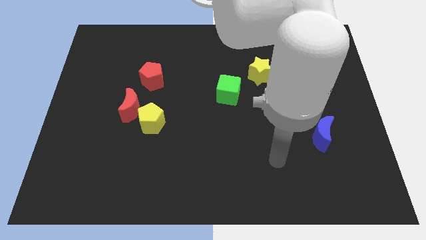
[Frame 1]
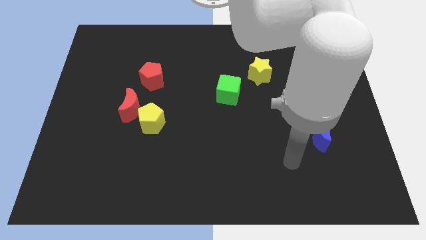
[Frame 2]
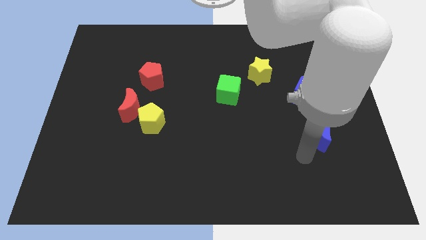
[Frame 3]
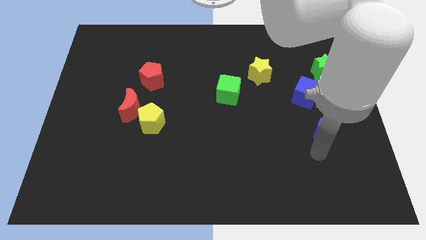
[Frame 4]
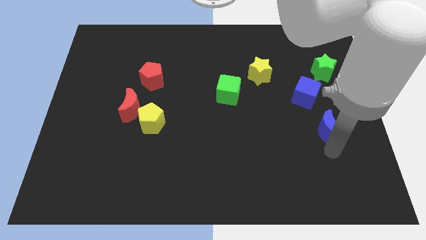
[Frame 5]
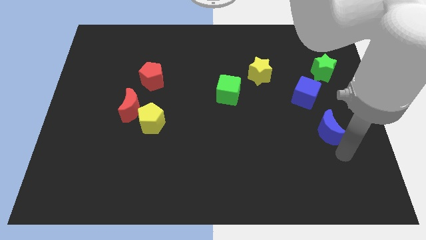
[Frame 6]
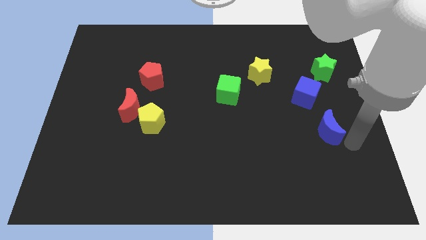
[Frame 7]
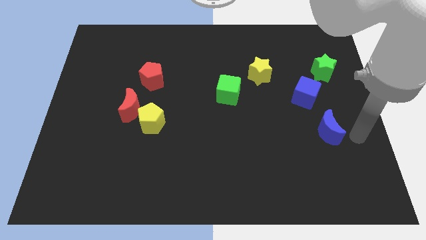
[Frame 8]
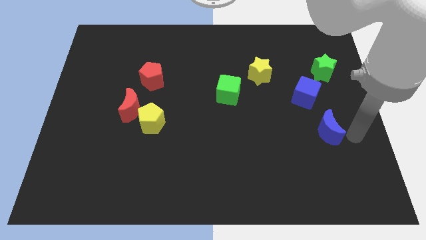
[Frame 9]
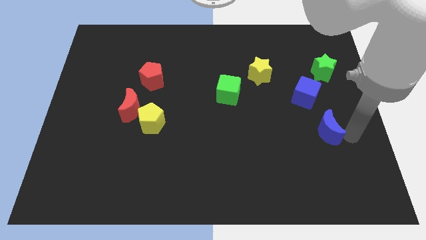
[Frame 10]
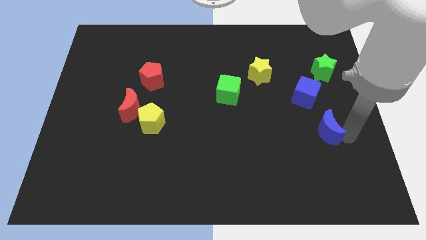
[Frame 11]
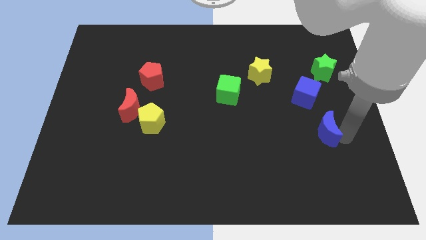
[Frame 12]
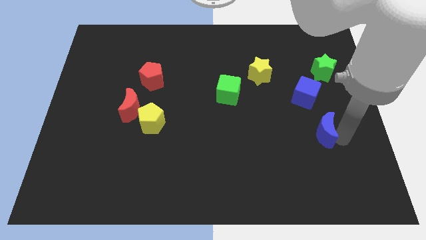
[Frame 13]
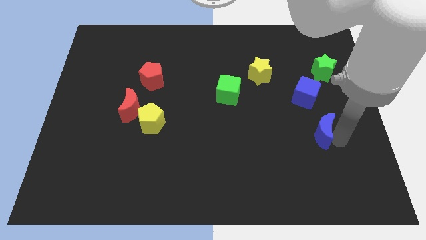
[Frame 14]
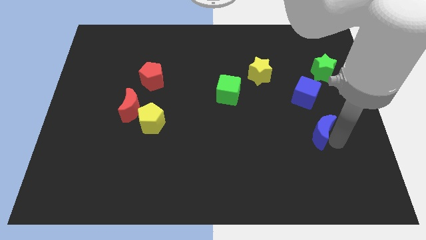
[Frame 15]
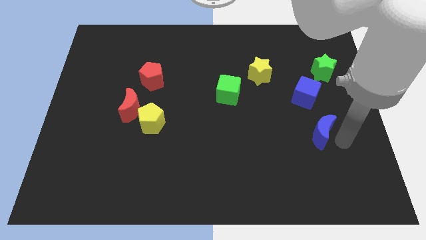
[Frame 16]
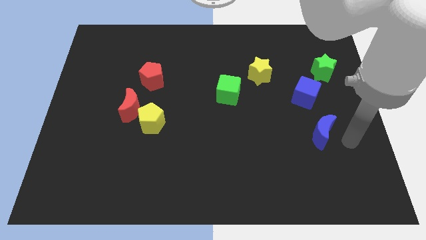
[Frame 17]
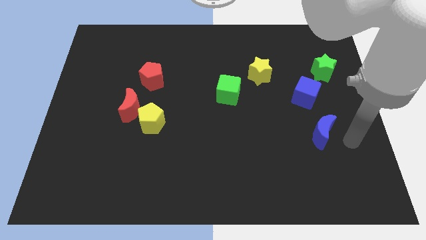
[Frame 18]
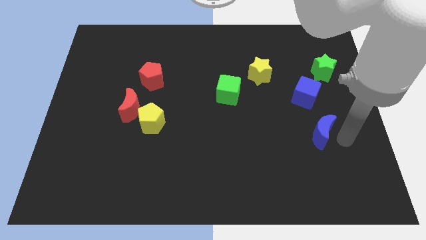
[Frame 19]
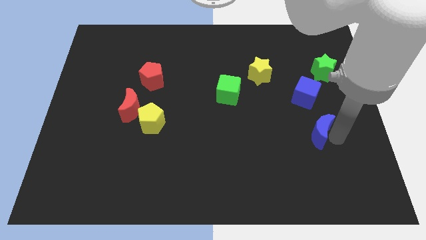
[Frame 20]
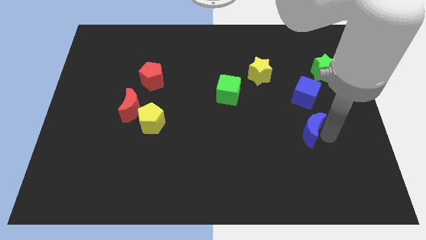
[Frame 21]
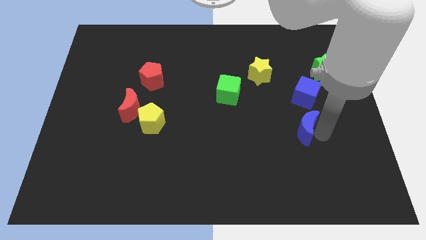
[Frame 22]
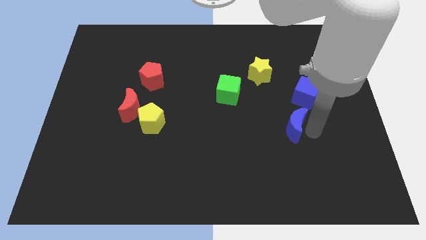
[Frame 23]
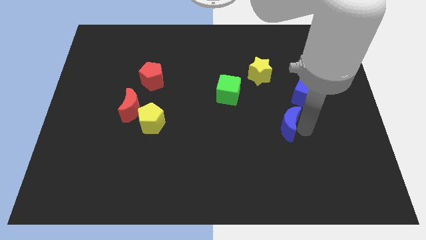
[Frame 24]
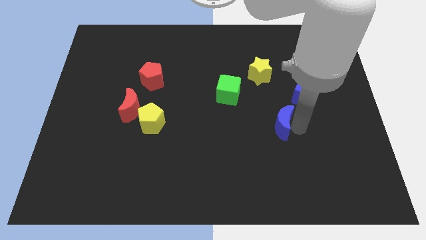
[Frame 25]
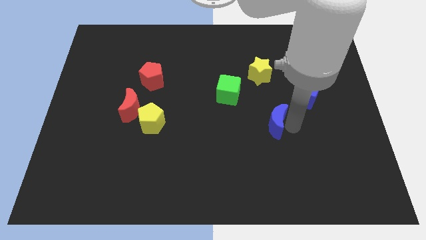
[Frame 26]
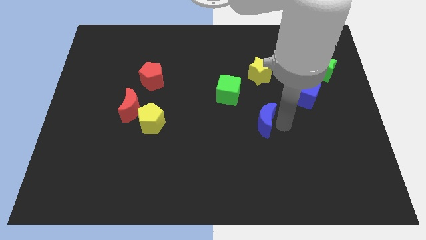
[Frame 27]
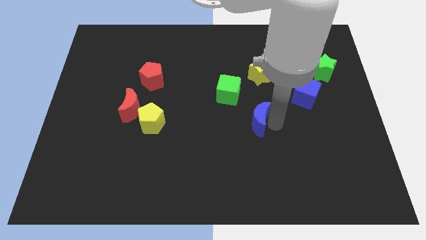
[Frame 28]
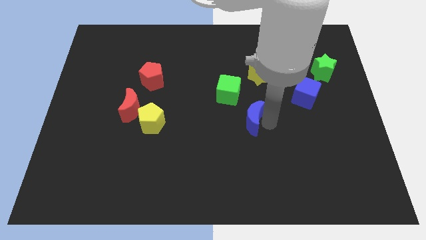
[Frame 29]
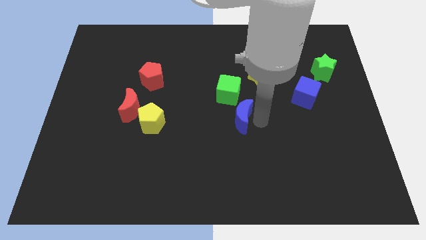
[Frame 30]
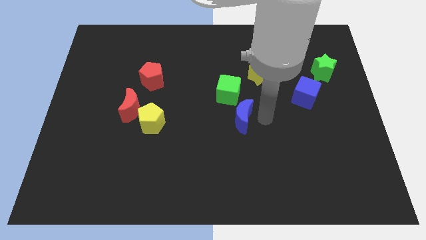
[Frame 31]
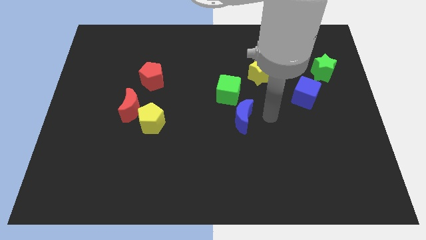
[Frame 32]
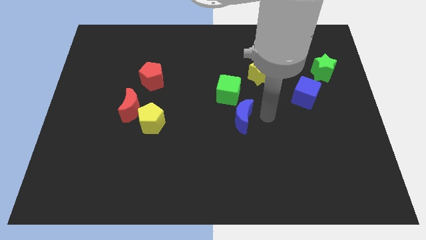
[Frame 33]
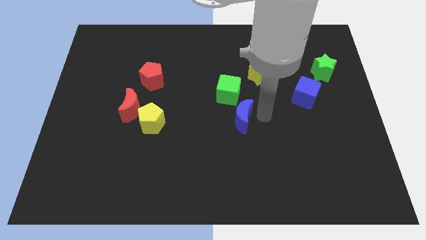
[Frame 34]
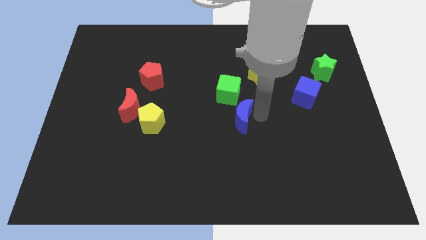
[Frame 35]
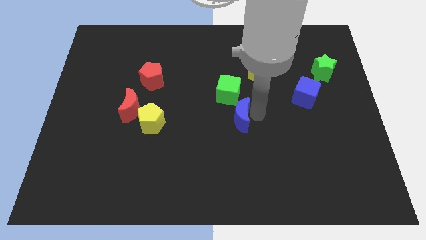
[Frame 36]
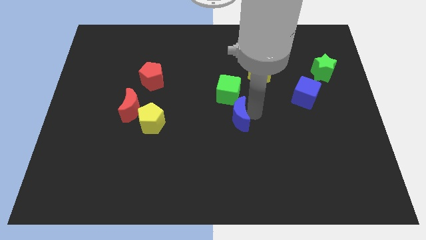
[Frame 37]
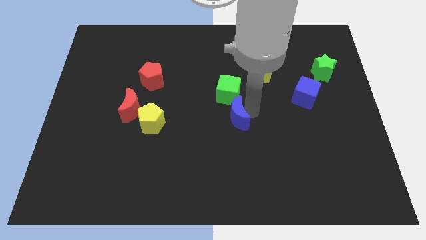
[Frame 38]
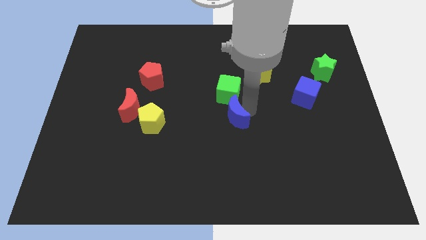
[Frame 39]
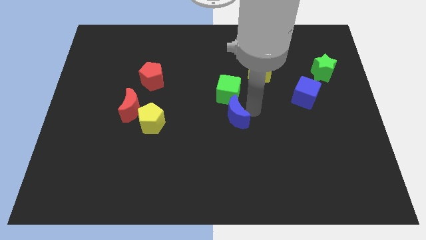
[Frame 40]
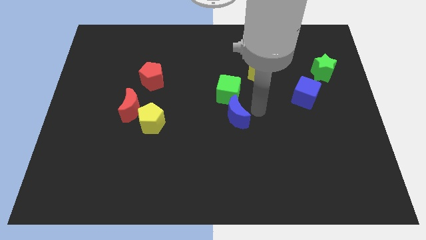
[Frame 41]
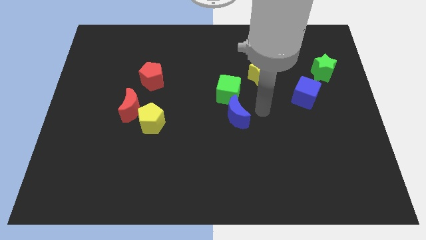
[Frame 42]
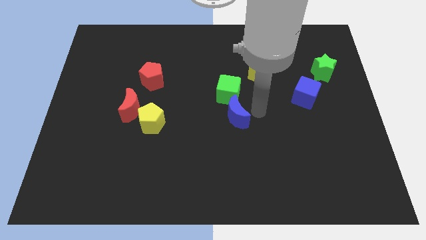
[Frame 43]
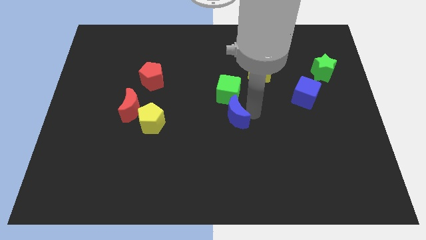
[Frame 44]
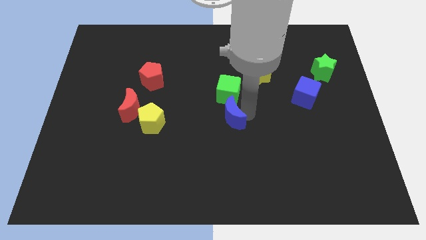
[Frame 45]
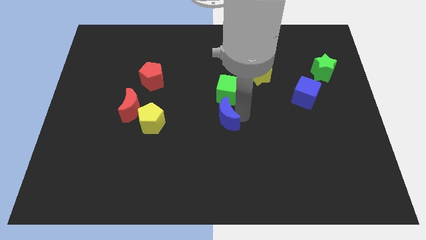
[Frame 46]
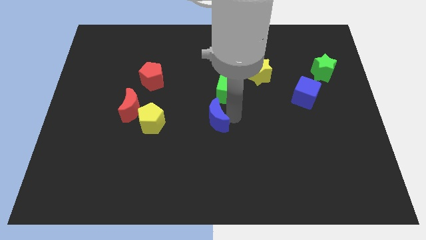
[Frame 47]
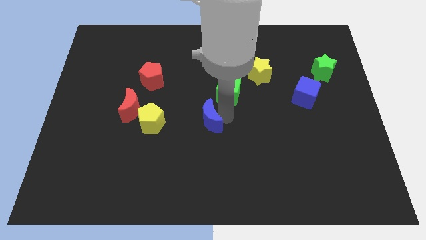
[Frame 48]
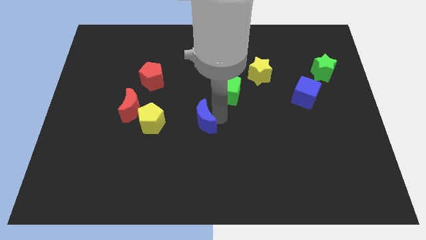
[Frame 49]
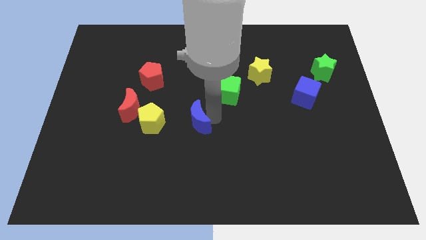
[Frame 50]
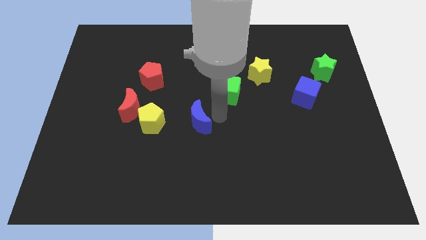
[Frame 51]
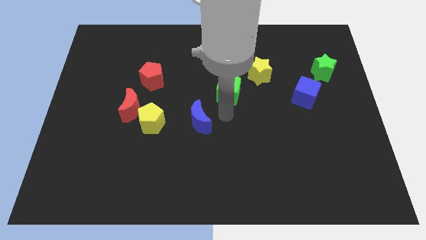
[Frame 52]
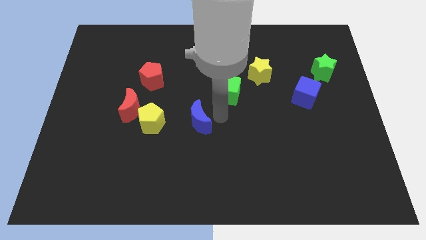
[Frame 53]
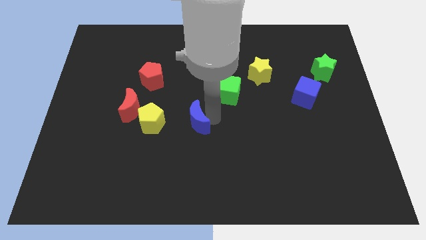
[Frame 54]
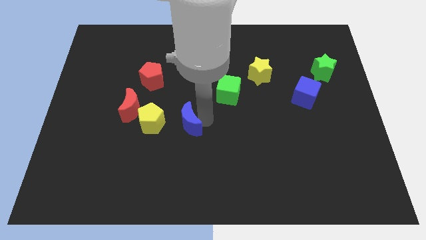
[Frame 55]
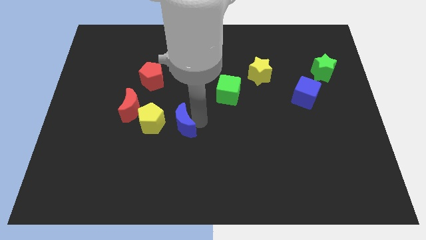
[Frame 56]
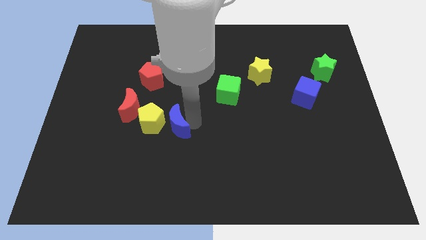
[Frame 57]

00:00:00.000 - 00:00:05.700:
move the blue moon close to the yellow pentagon

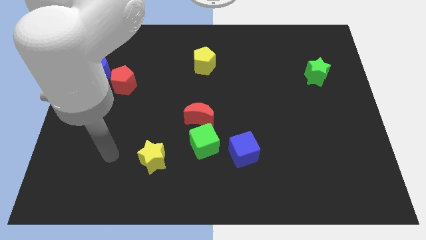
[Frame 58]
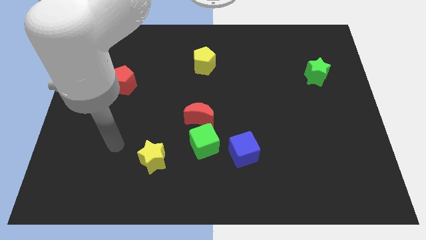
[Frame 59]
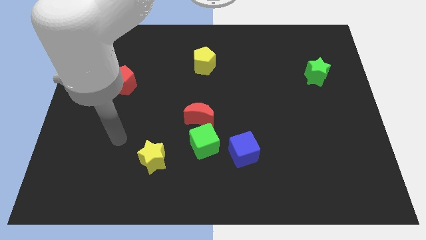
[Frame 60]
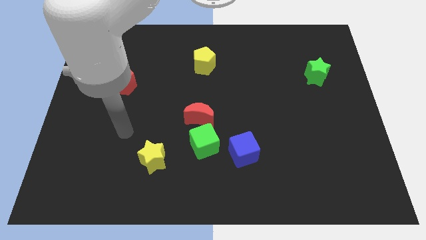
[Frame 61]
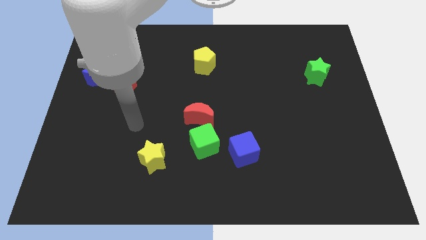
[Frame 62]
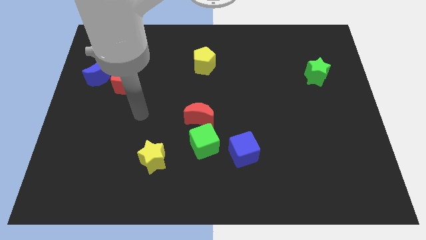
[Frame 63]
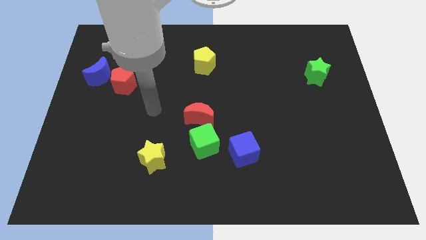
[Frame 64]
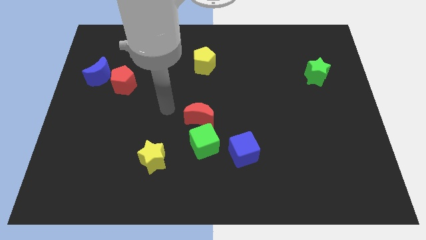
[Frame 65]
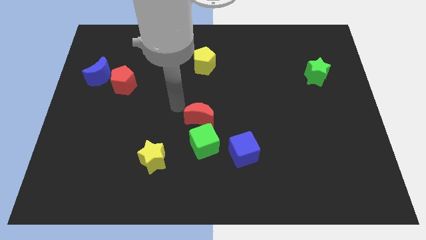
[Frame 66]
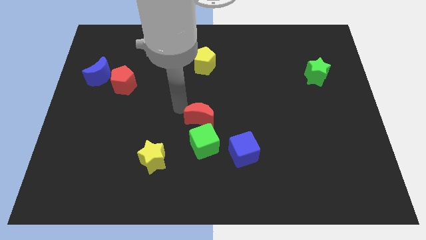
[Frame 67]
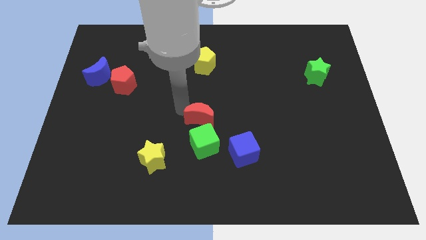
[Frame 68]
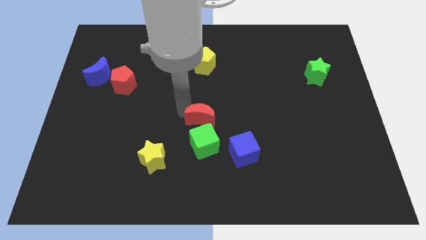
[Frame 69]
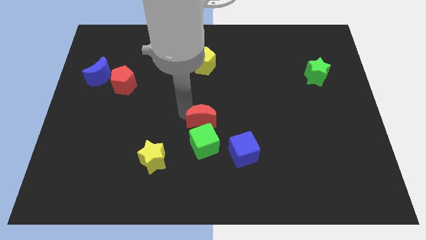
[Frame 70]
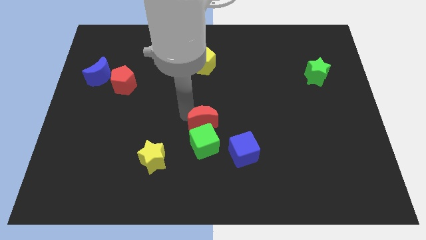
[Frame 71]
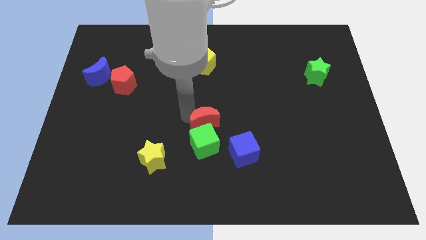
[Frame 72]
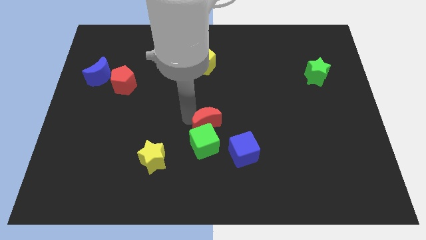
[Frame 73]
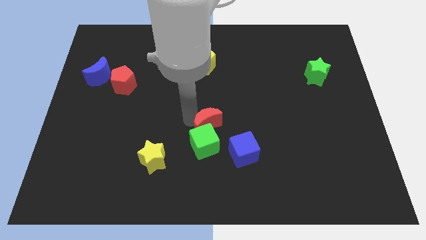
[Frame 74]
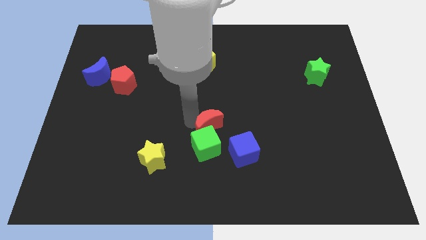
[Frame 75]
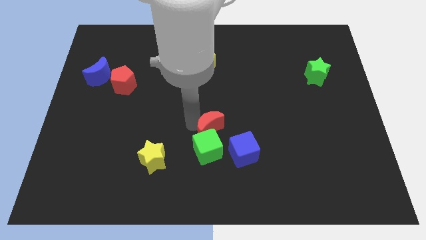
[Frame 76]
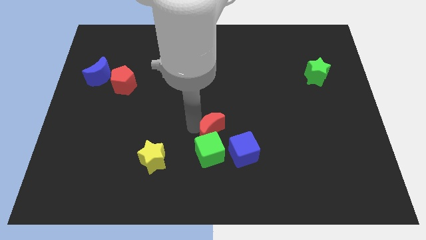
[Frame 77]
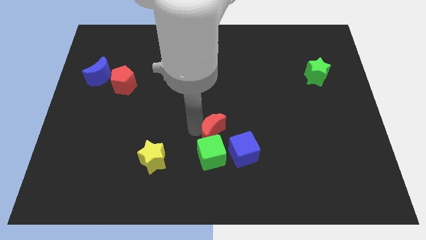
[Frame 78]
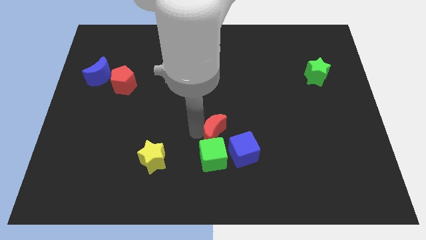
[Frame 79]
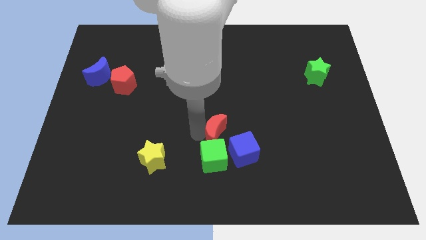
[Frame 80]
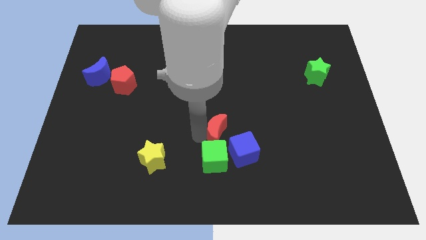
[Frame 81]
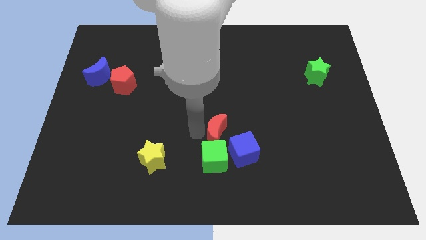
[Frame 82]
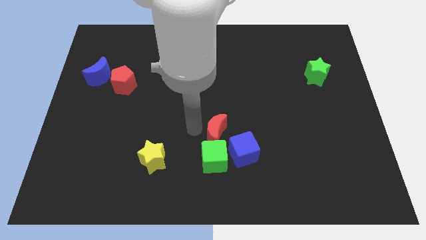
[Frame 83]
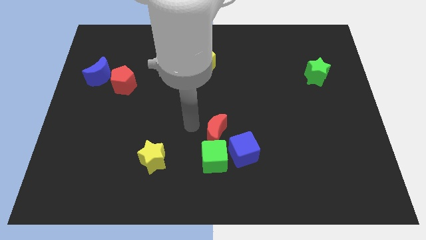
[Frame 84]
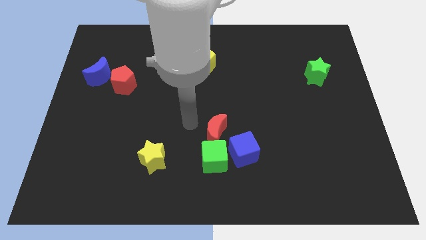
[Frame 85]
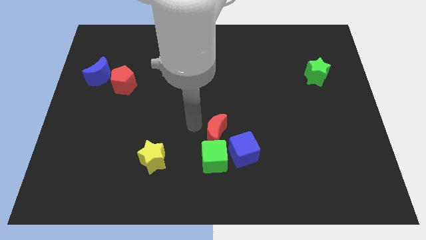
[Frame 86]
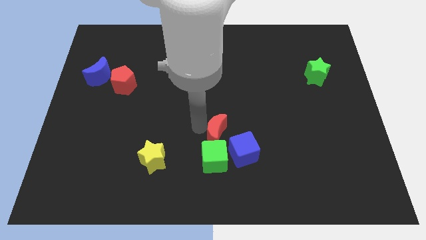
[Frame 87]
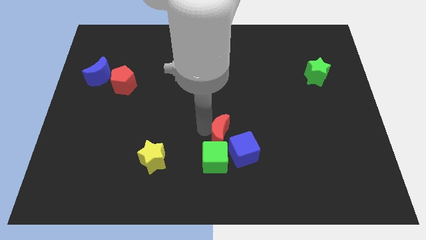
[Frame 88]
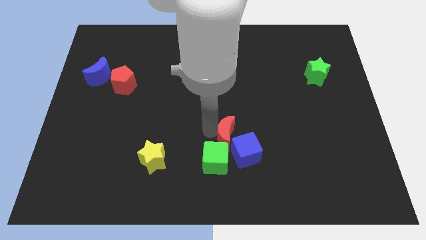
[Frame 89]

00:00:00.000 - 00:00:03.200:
slide the red moon next to the blue cube
